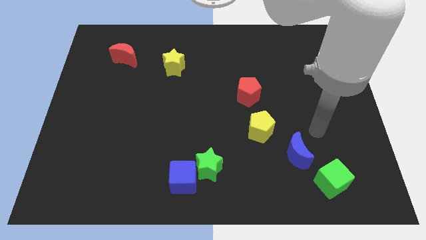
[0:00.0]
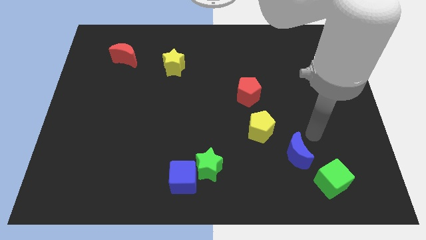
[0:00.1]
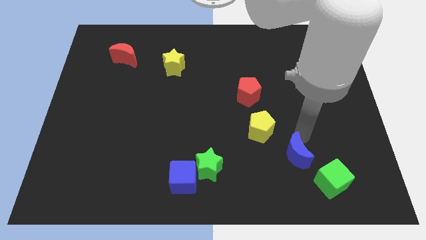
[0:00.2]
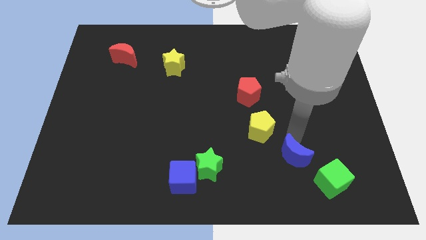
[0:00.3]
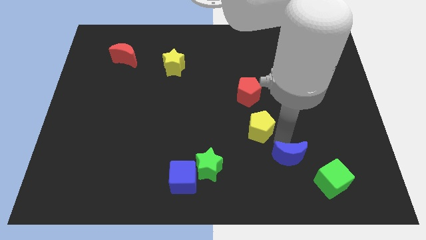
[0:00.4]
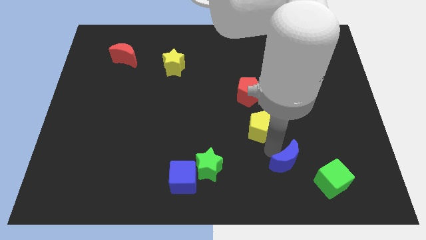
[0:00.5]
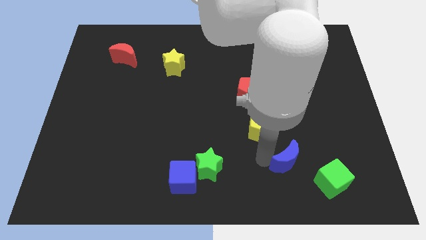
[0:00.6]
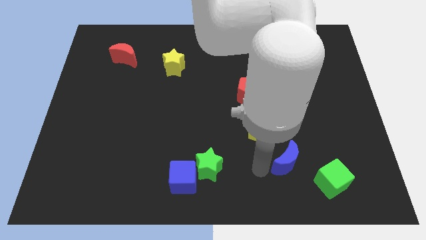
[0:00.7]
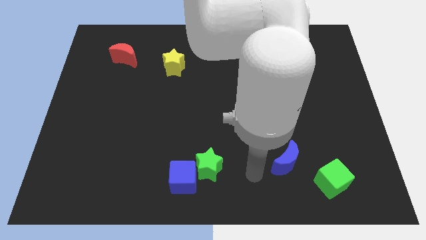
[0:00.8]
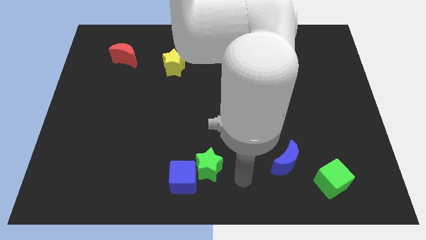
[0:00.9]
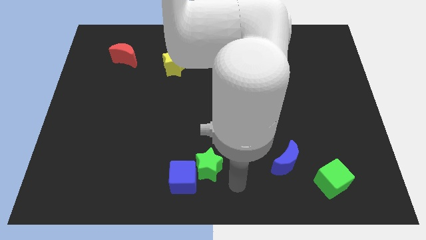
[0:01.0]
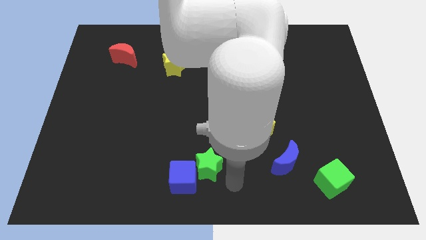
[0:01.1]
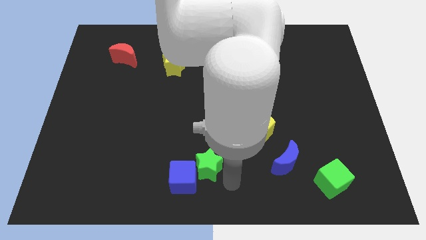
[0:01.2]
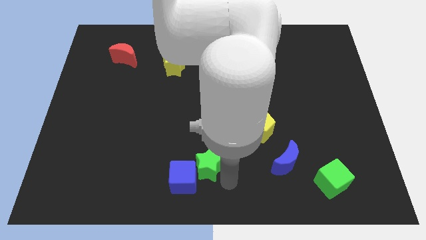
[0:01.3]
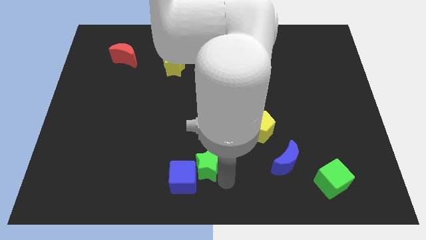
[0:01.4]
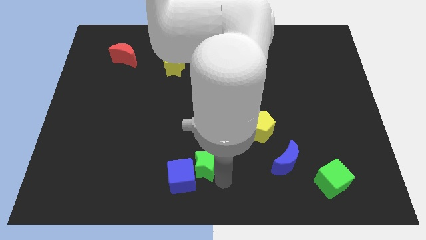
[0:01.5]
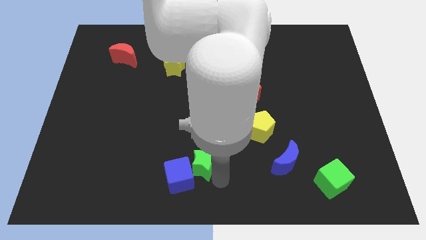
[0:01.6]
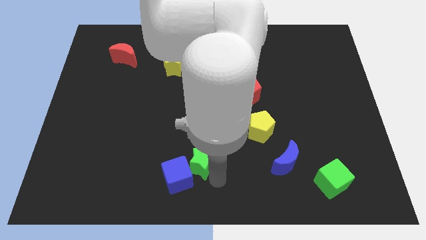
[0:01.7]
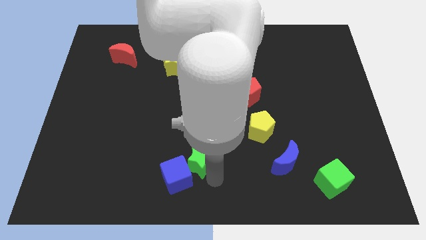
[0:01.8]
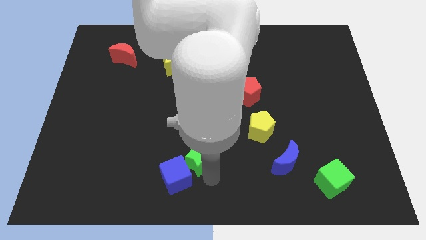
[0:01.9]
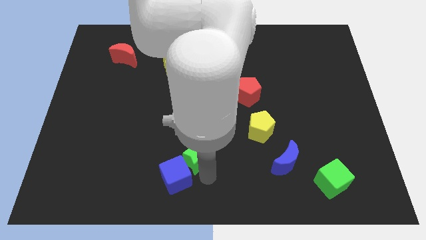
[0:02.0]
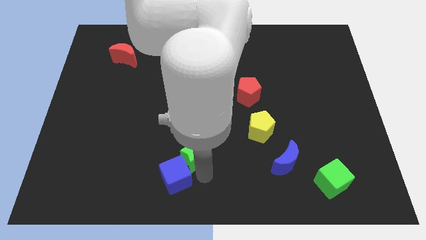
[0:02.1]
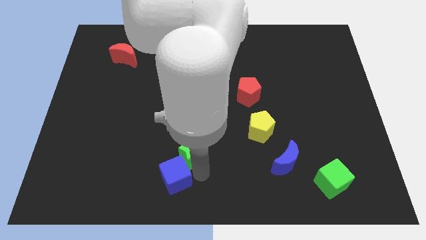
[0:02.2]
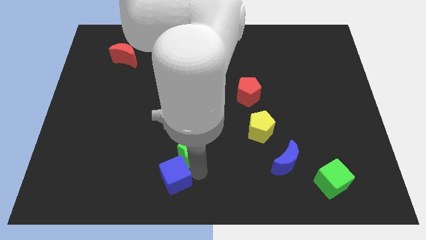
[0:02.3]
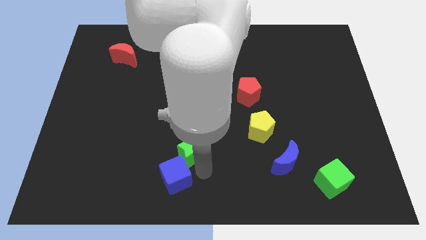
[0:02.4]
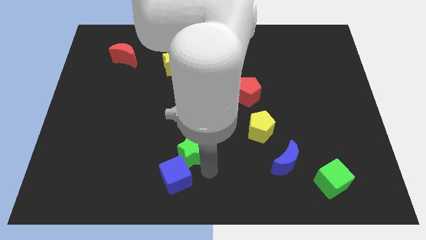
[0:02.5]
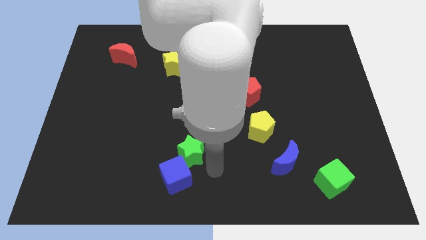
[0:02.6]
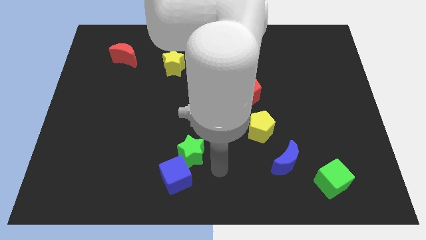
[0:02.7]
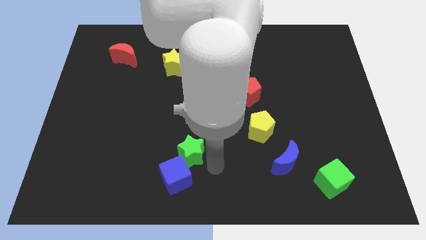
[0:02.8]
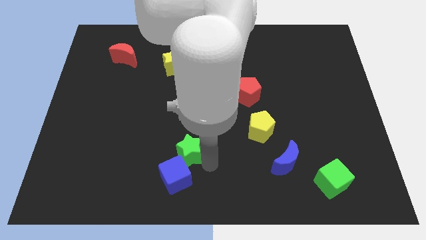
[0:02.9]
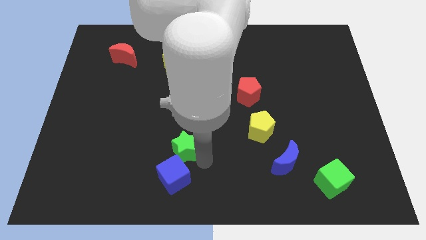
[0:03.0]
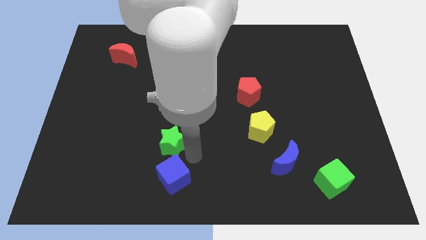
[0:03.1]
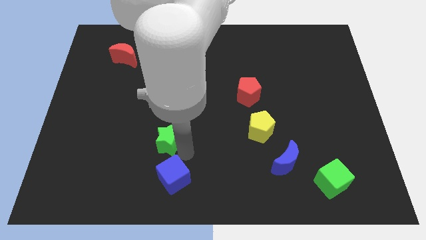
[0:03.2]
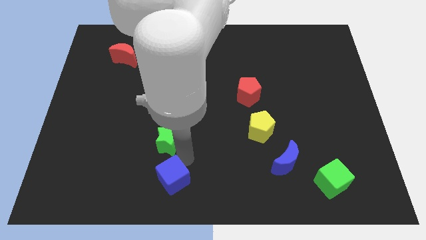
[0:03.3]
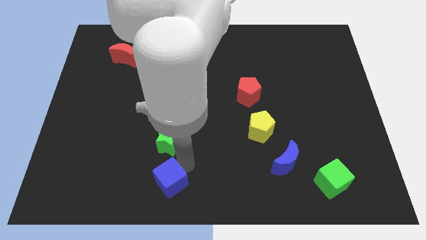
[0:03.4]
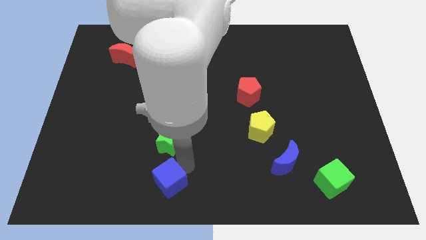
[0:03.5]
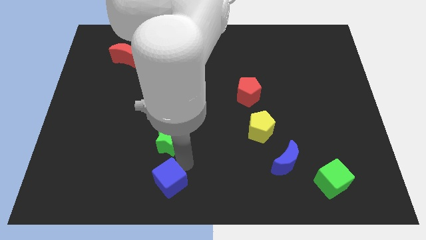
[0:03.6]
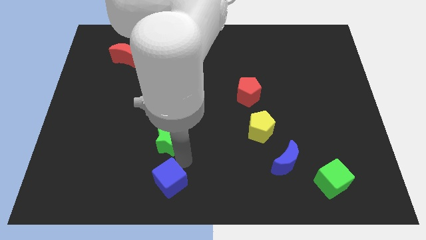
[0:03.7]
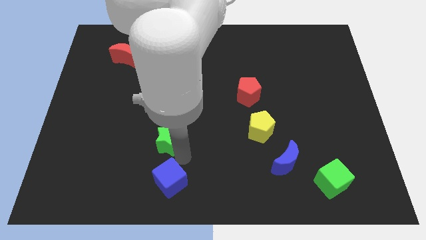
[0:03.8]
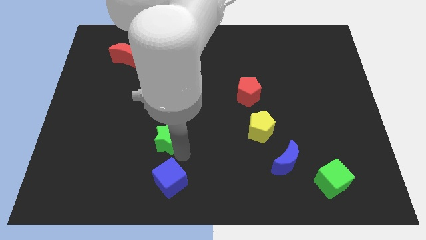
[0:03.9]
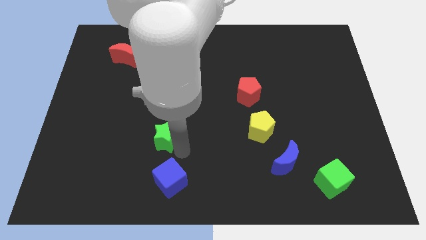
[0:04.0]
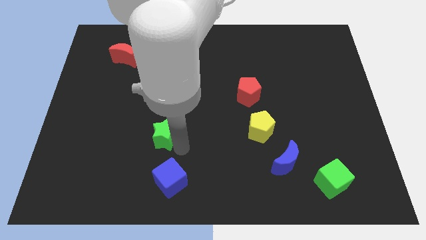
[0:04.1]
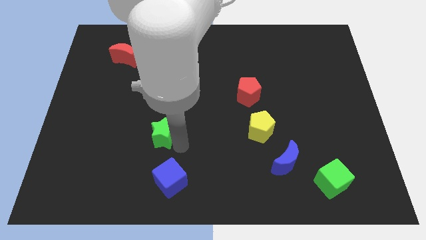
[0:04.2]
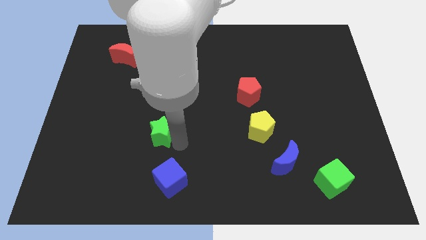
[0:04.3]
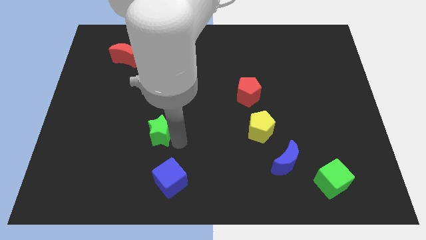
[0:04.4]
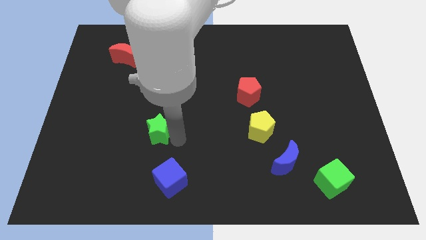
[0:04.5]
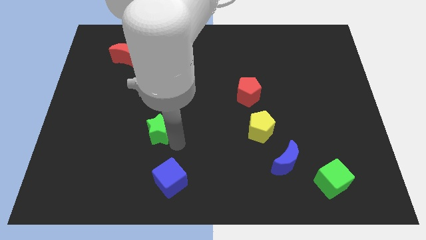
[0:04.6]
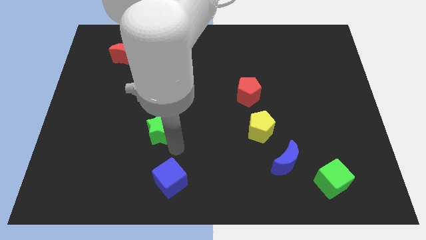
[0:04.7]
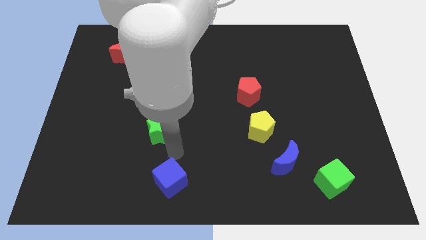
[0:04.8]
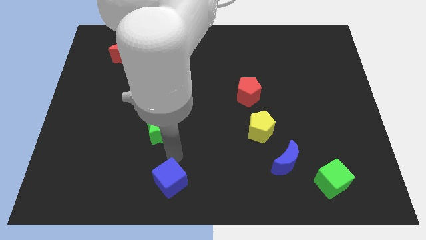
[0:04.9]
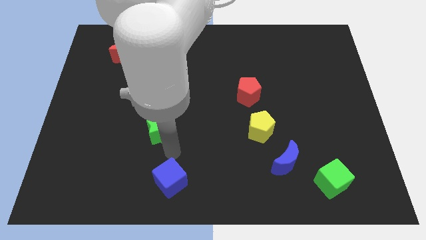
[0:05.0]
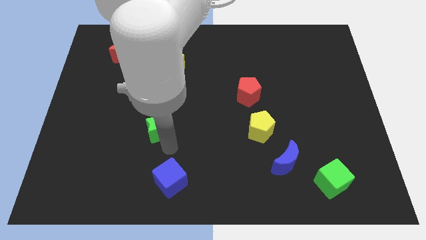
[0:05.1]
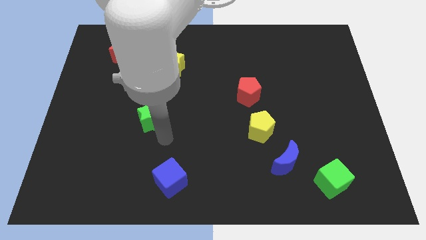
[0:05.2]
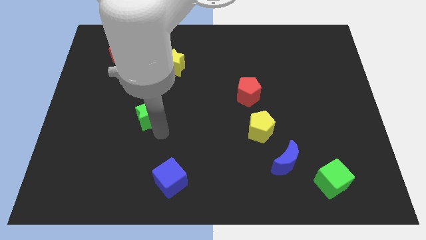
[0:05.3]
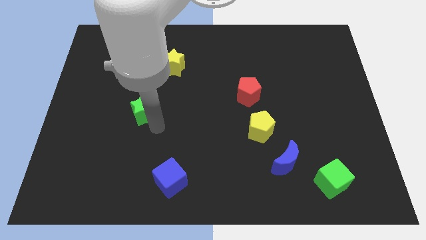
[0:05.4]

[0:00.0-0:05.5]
push the green star up and to the left diagonally

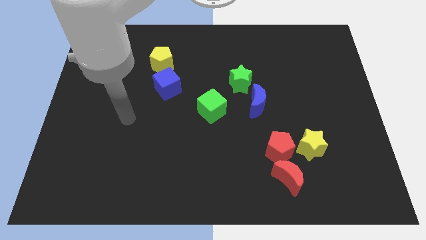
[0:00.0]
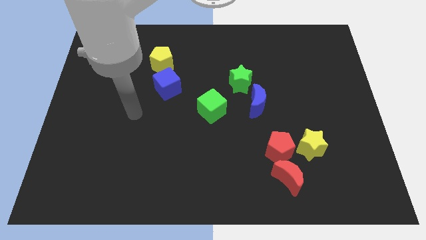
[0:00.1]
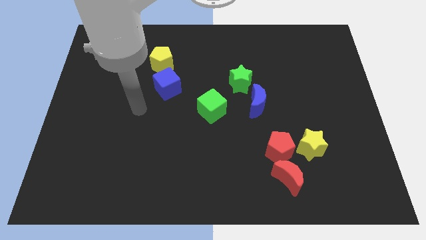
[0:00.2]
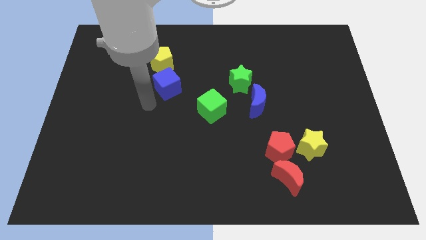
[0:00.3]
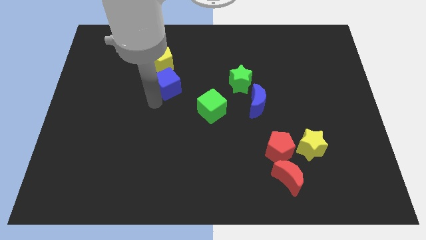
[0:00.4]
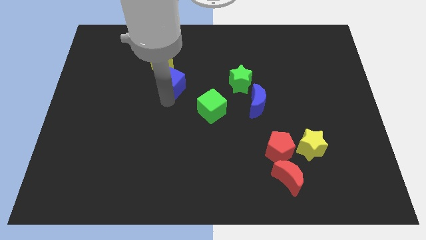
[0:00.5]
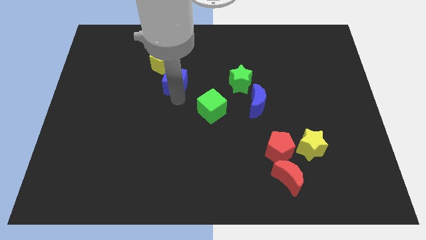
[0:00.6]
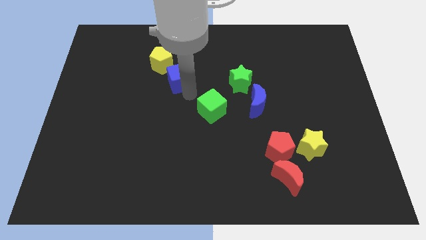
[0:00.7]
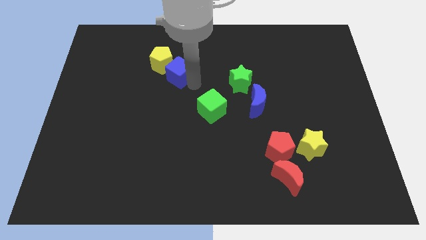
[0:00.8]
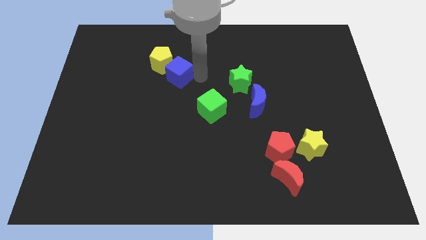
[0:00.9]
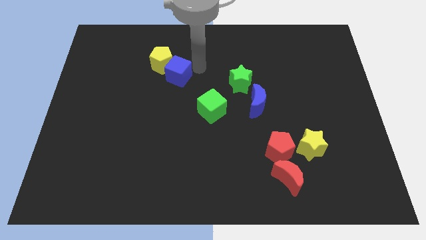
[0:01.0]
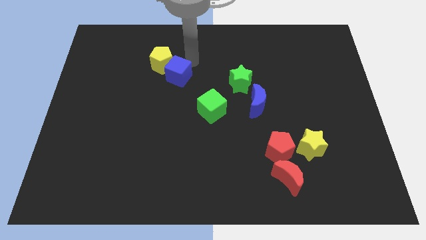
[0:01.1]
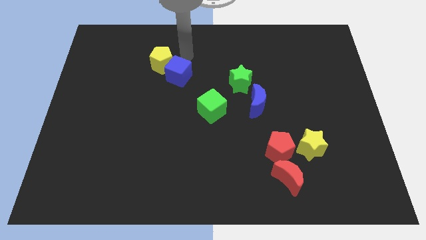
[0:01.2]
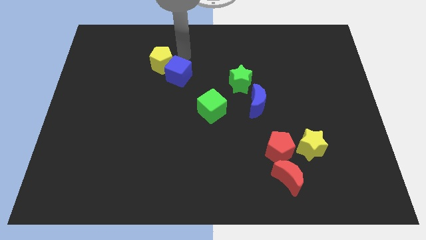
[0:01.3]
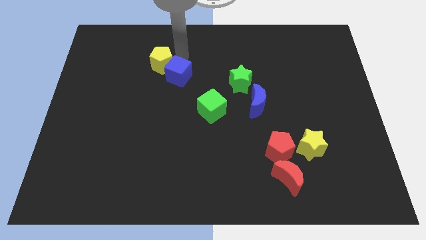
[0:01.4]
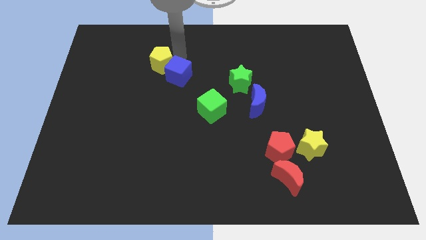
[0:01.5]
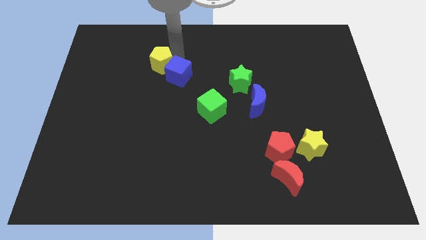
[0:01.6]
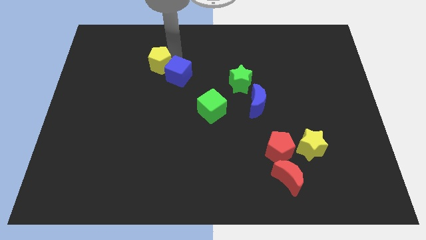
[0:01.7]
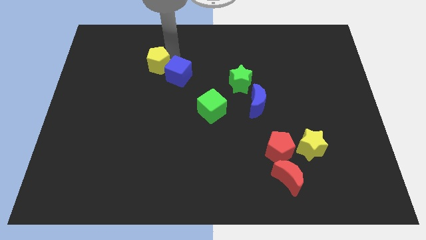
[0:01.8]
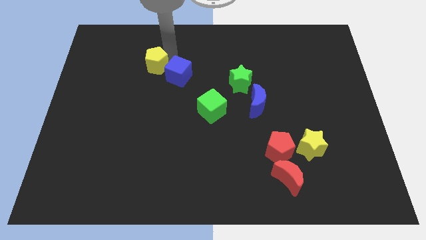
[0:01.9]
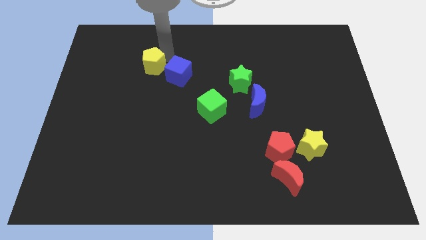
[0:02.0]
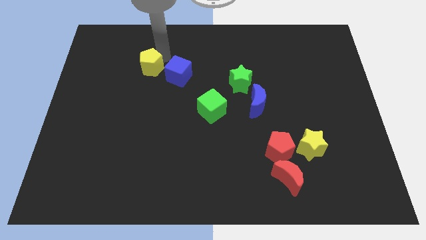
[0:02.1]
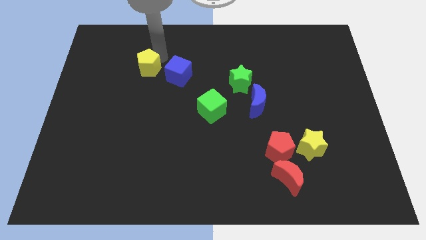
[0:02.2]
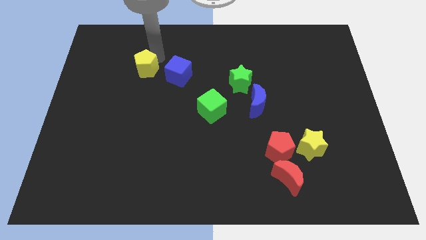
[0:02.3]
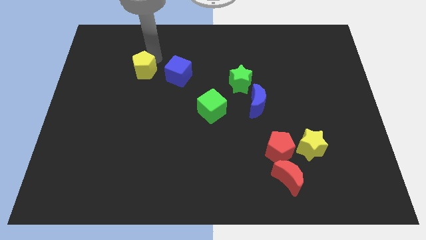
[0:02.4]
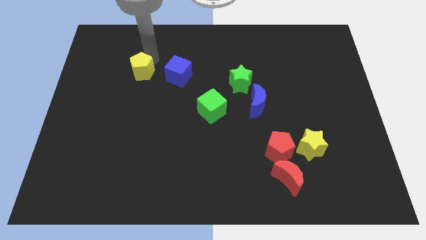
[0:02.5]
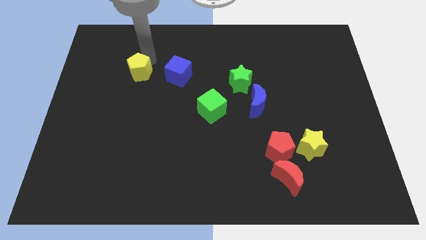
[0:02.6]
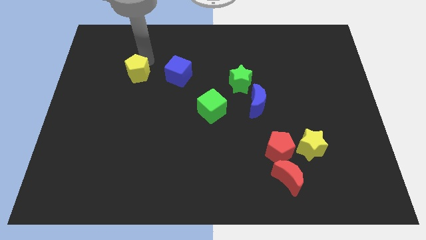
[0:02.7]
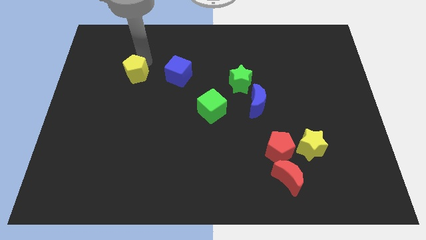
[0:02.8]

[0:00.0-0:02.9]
slide the yellow pentagon somewhat downwards and then left
